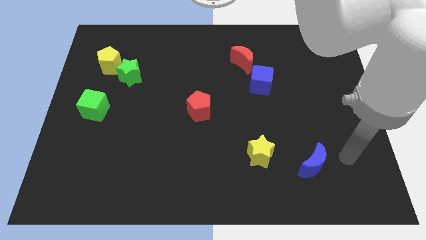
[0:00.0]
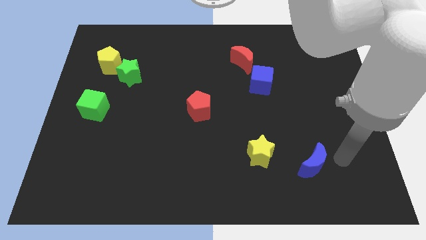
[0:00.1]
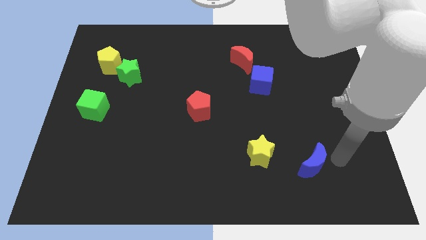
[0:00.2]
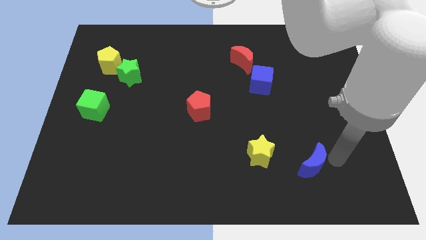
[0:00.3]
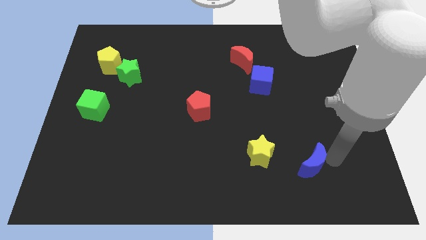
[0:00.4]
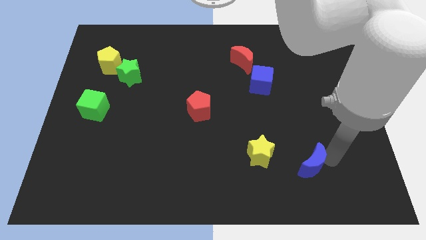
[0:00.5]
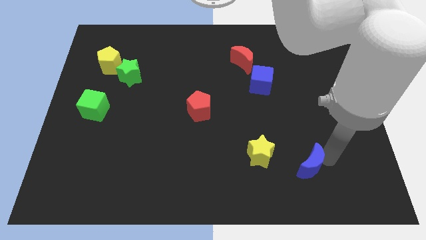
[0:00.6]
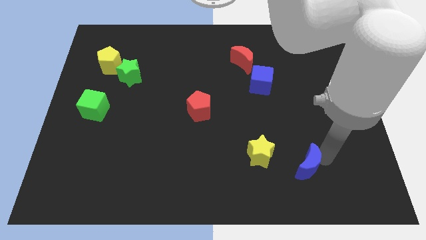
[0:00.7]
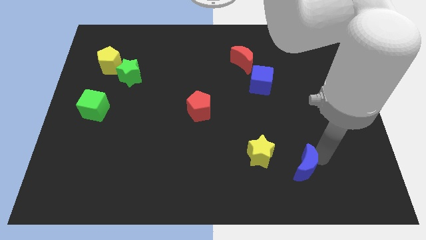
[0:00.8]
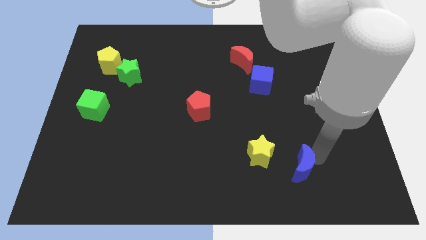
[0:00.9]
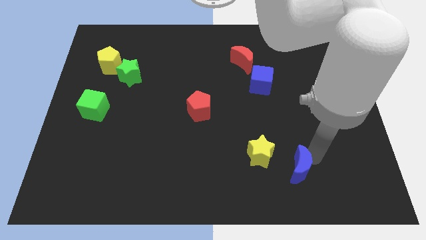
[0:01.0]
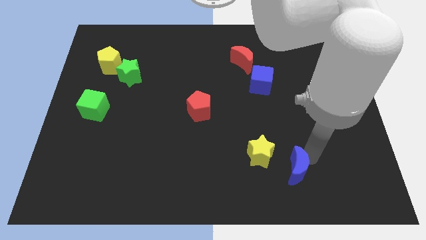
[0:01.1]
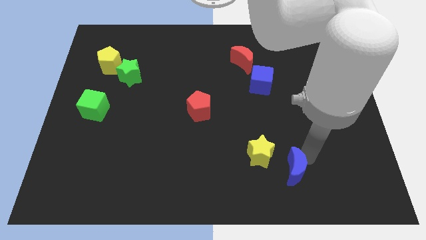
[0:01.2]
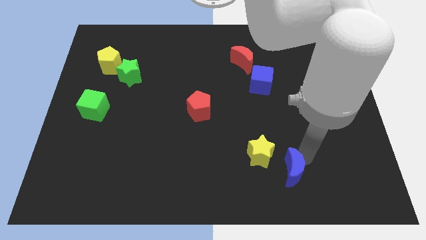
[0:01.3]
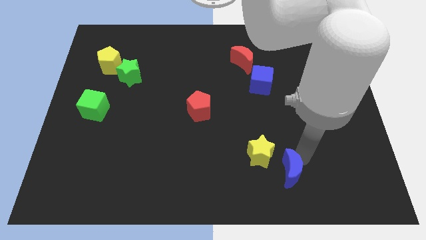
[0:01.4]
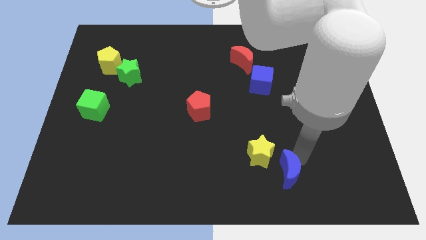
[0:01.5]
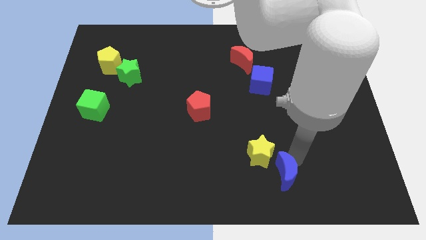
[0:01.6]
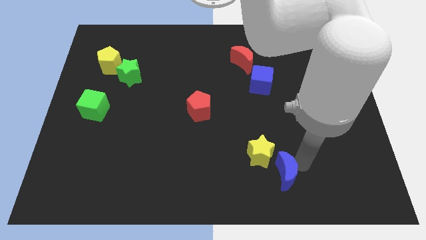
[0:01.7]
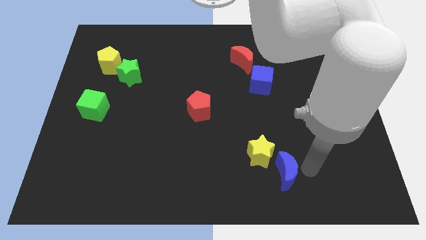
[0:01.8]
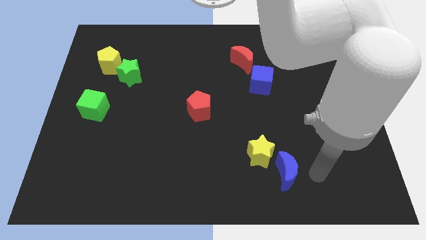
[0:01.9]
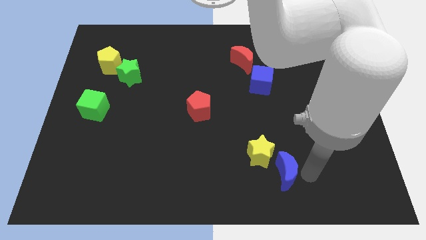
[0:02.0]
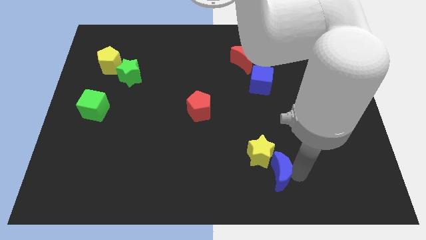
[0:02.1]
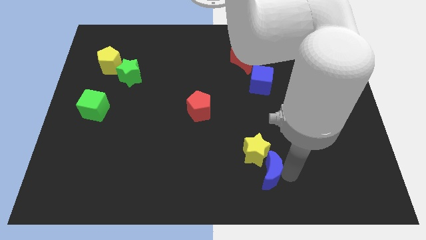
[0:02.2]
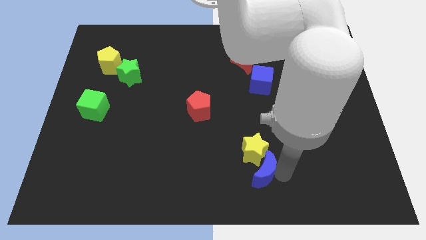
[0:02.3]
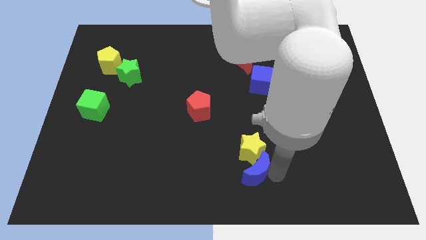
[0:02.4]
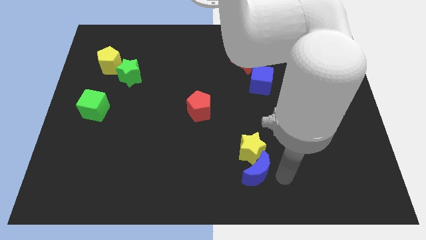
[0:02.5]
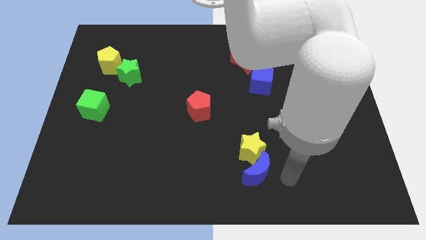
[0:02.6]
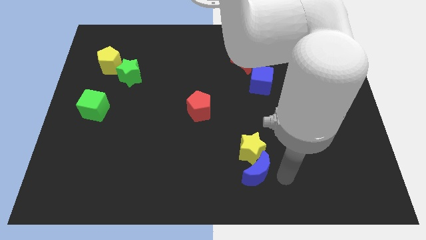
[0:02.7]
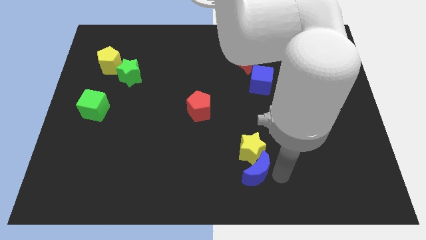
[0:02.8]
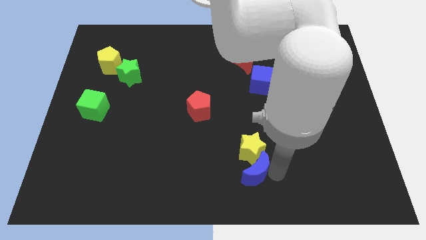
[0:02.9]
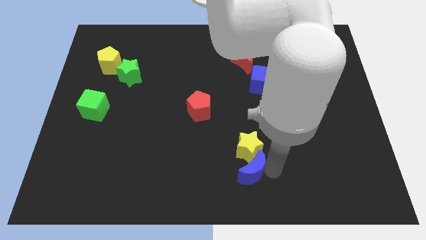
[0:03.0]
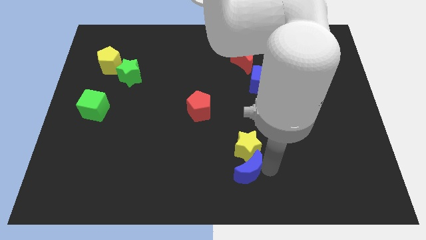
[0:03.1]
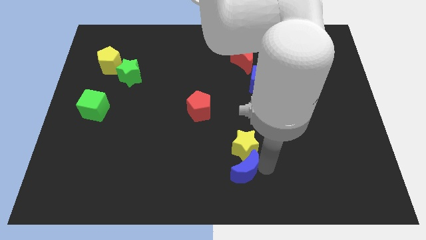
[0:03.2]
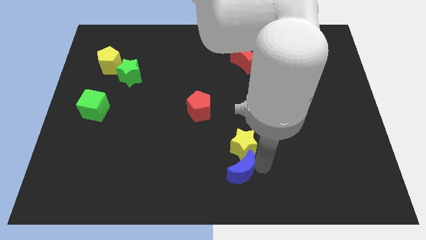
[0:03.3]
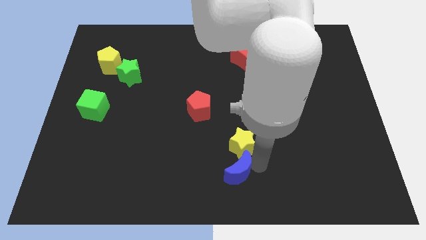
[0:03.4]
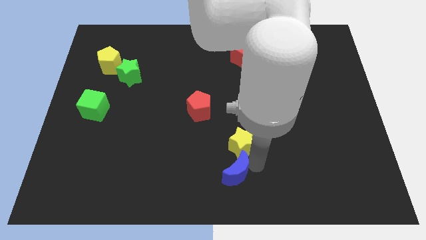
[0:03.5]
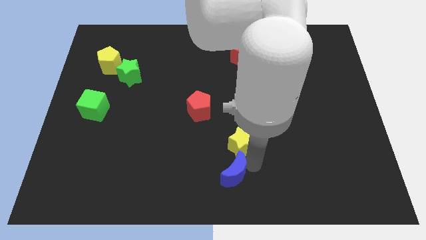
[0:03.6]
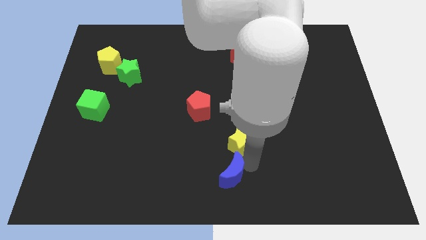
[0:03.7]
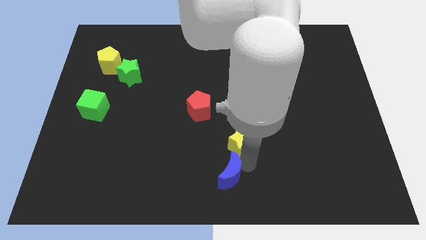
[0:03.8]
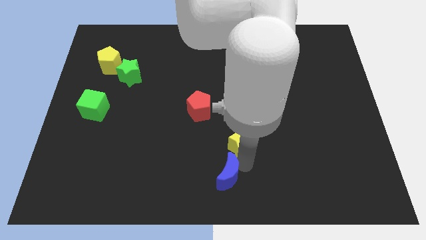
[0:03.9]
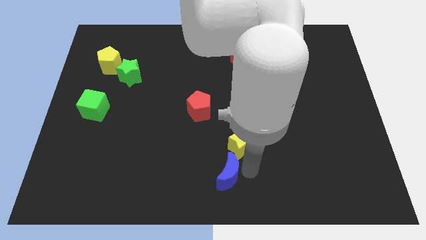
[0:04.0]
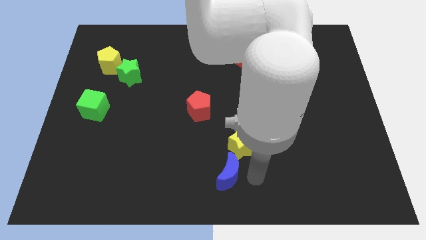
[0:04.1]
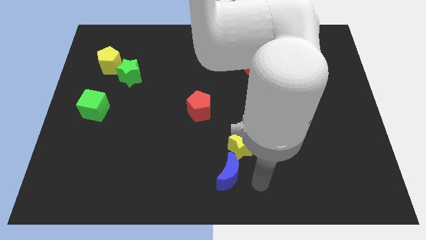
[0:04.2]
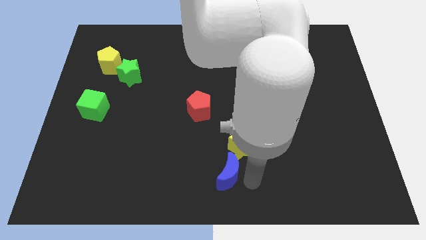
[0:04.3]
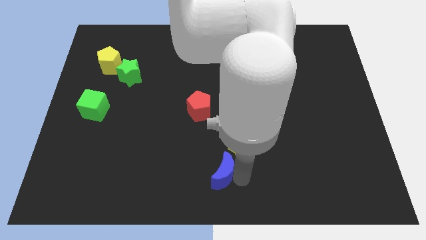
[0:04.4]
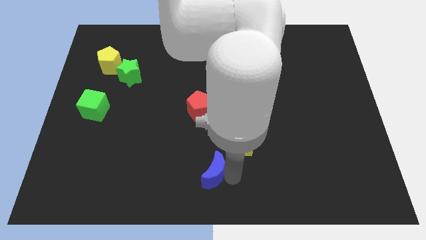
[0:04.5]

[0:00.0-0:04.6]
push the blue moon left

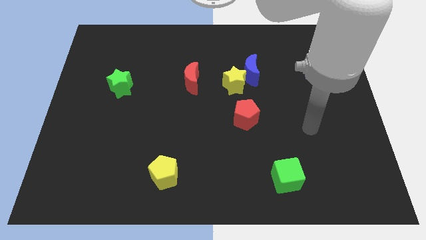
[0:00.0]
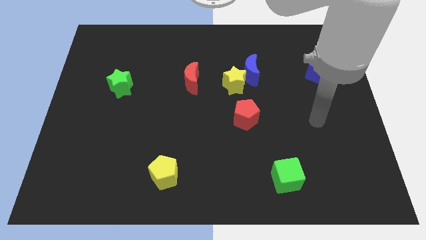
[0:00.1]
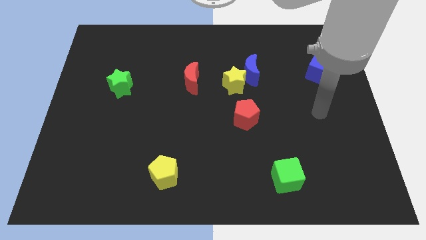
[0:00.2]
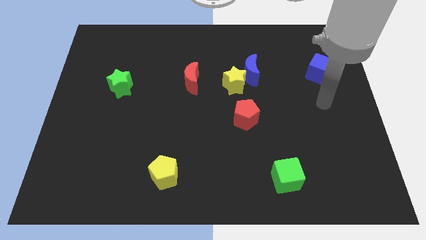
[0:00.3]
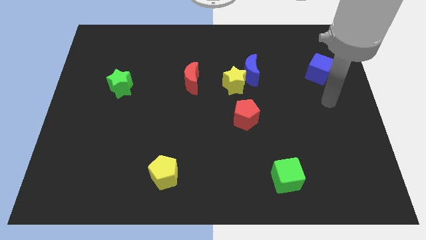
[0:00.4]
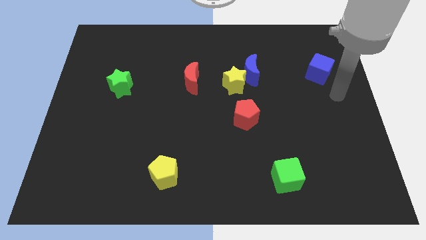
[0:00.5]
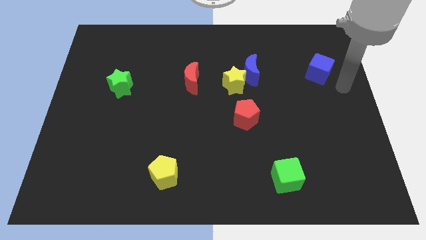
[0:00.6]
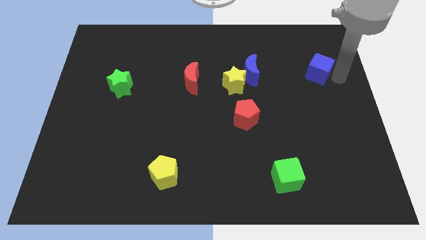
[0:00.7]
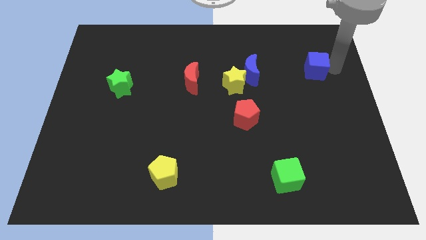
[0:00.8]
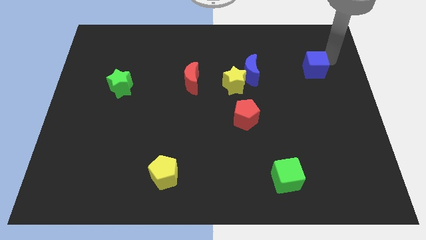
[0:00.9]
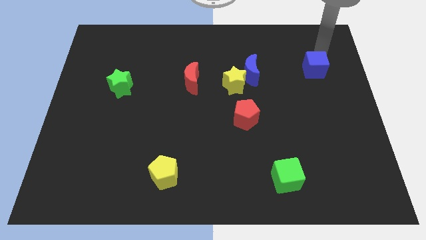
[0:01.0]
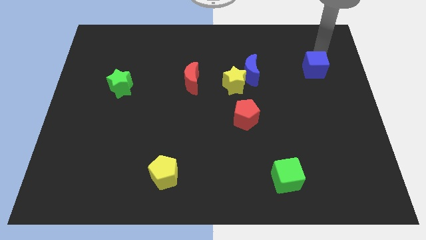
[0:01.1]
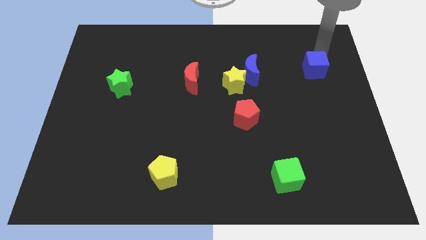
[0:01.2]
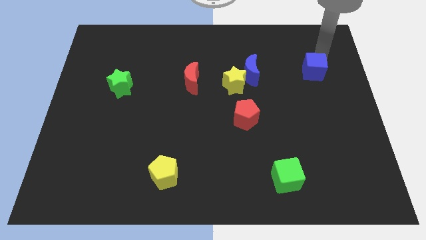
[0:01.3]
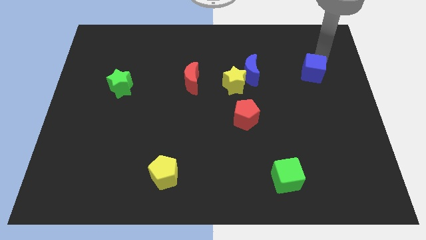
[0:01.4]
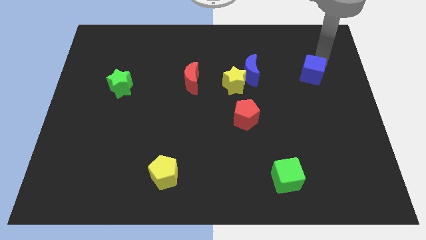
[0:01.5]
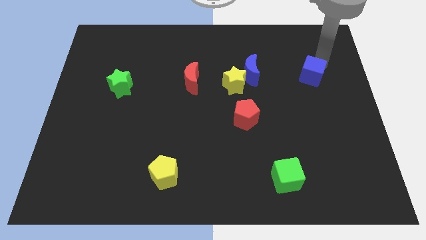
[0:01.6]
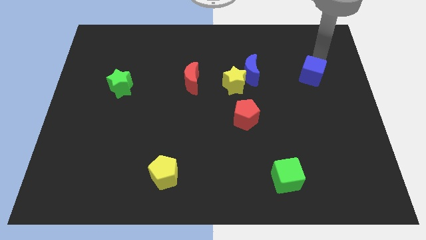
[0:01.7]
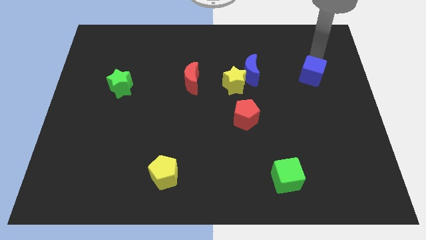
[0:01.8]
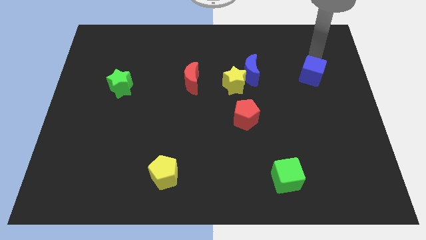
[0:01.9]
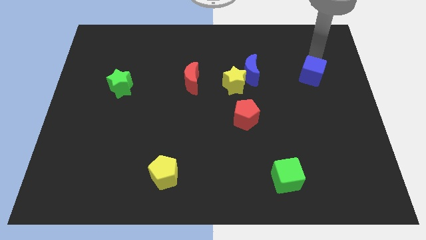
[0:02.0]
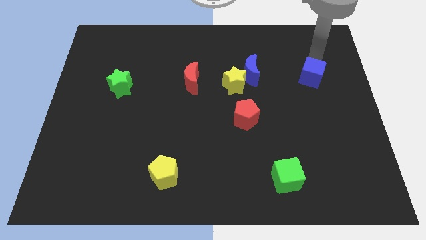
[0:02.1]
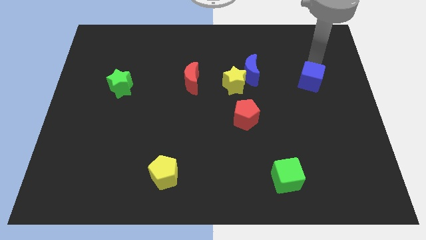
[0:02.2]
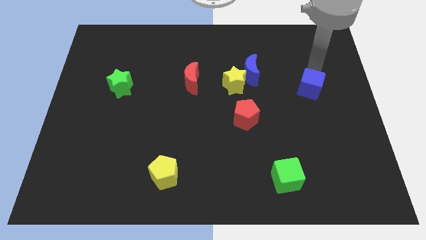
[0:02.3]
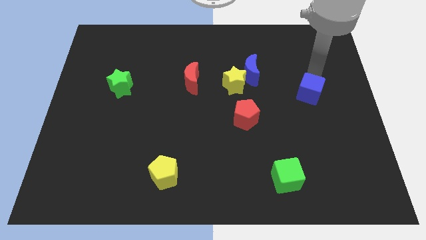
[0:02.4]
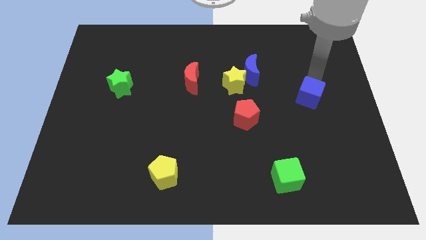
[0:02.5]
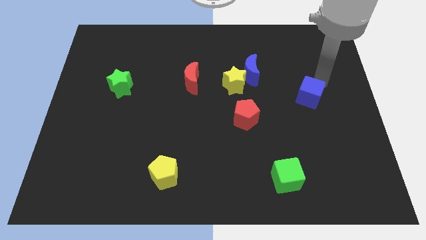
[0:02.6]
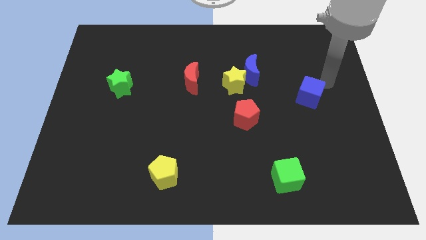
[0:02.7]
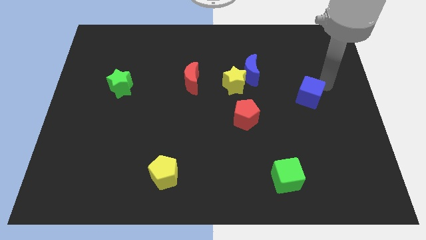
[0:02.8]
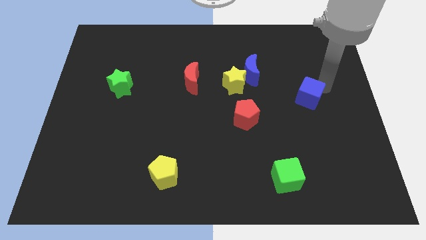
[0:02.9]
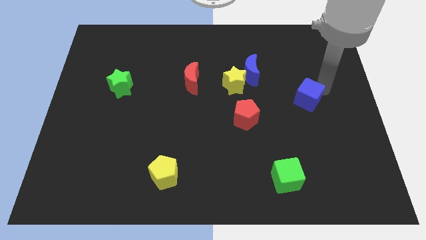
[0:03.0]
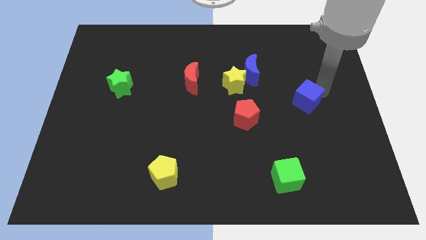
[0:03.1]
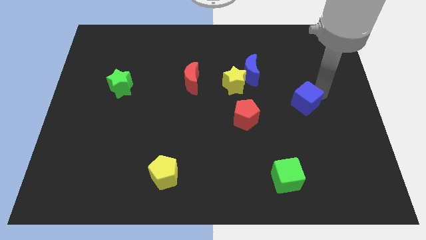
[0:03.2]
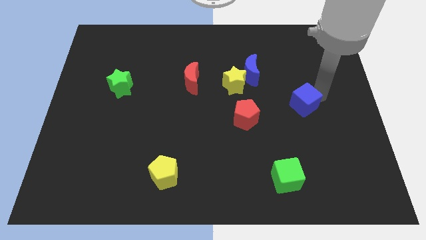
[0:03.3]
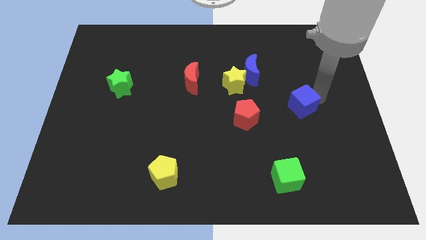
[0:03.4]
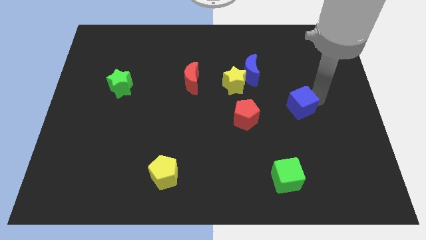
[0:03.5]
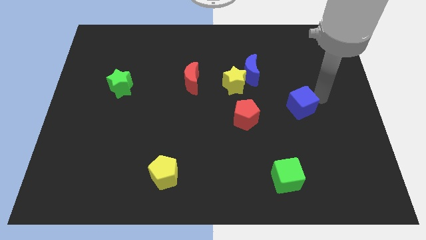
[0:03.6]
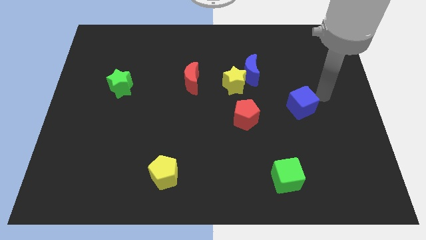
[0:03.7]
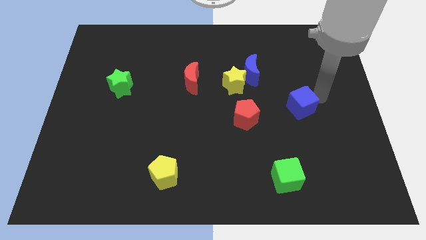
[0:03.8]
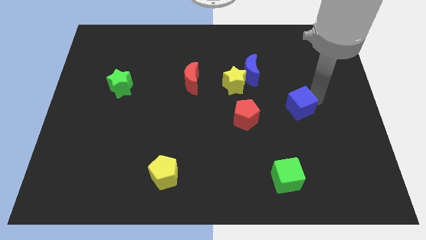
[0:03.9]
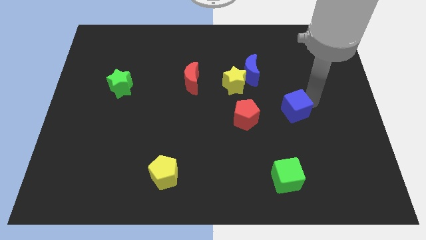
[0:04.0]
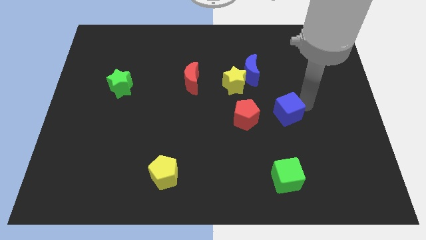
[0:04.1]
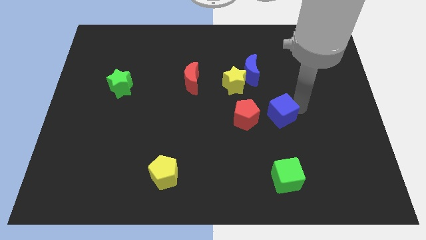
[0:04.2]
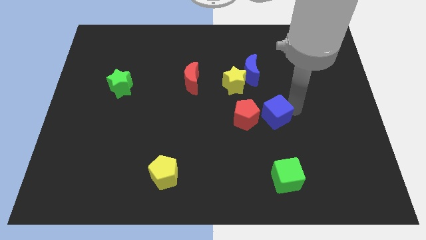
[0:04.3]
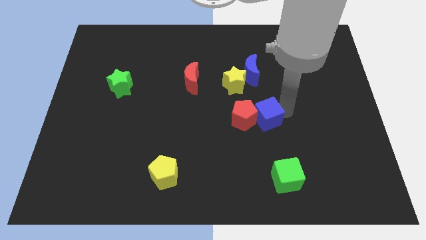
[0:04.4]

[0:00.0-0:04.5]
move the blue cube downwards and then left
